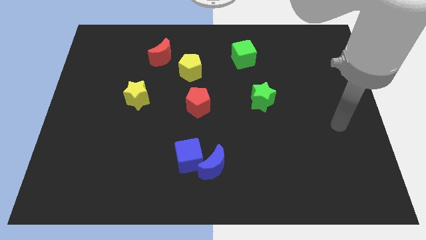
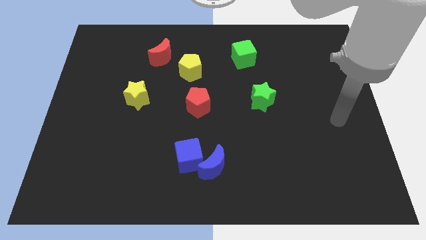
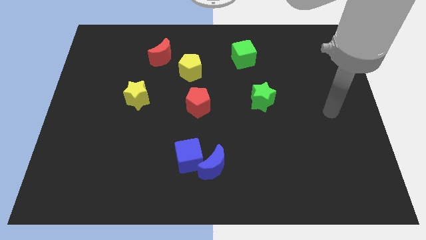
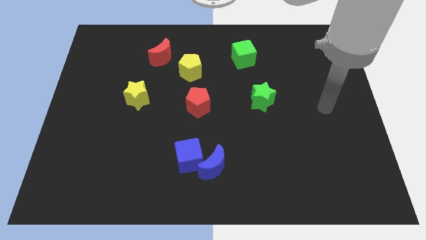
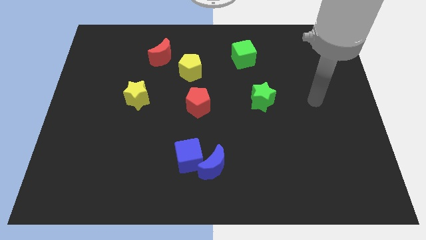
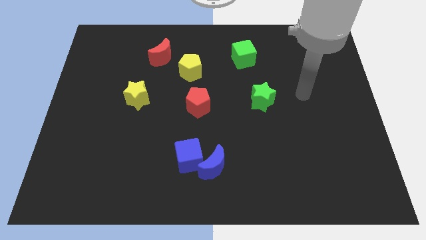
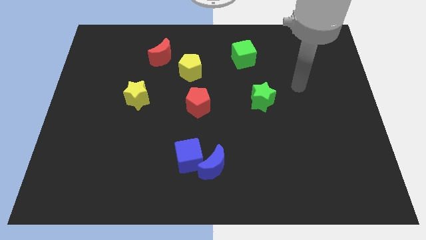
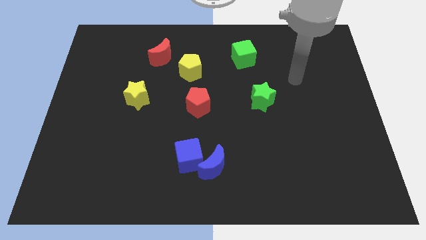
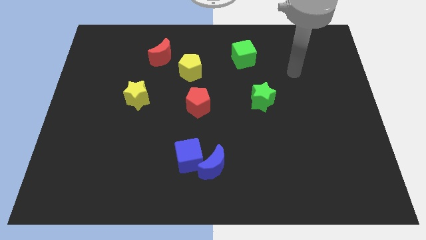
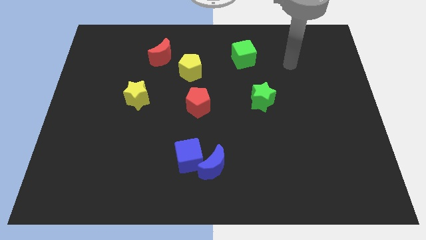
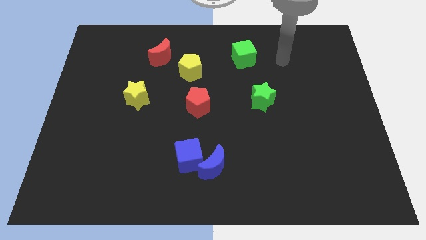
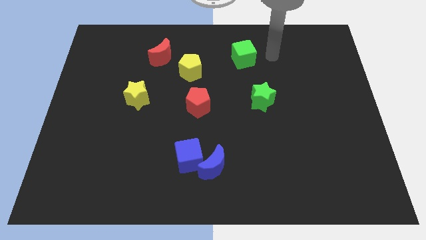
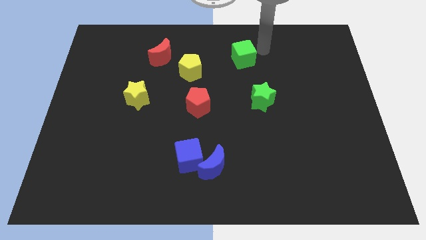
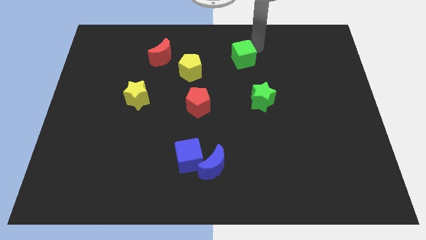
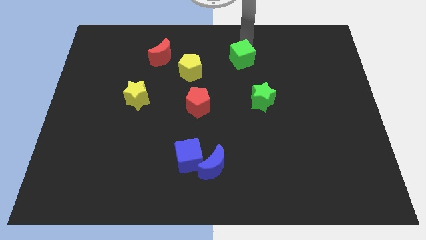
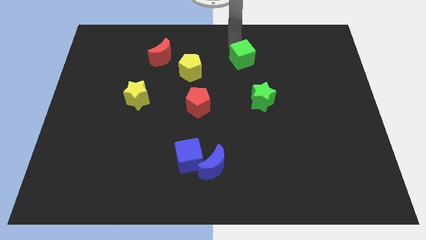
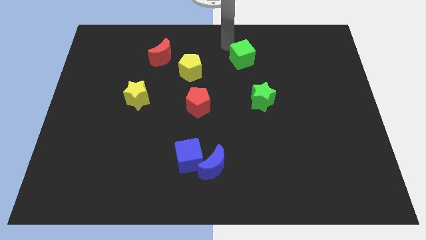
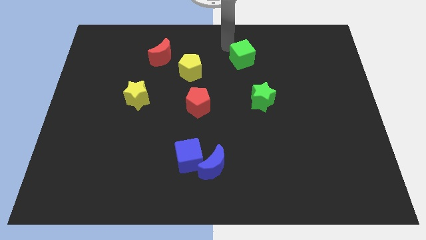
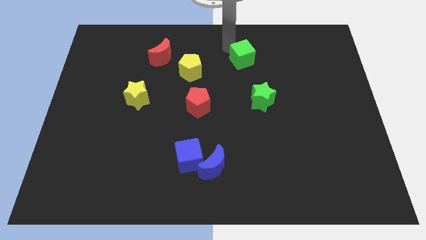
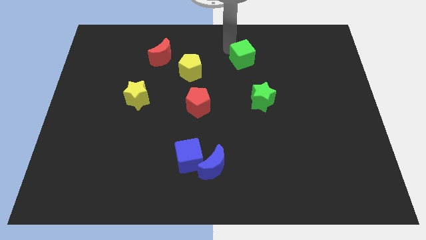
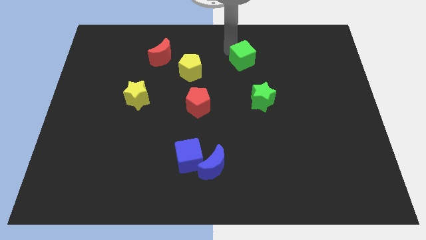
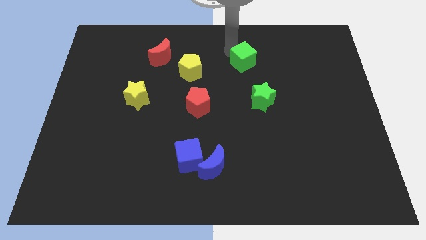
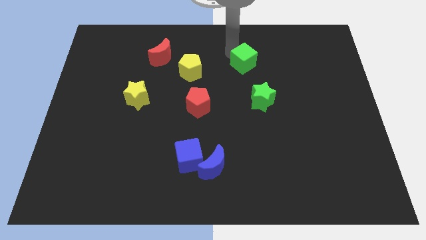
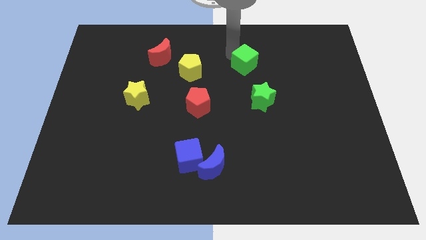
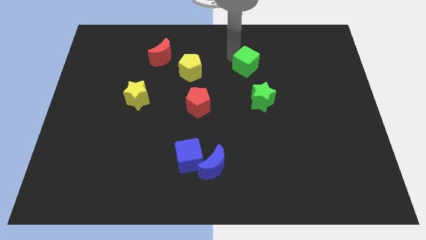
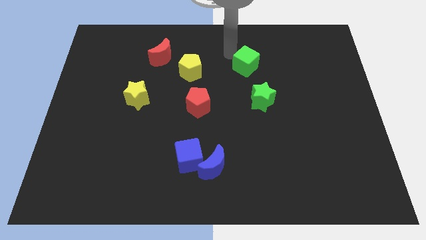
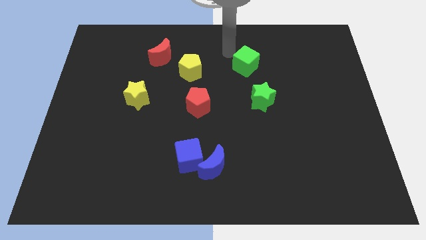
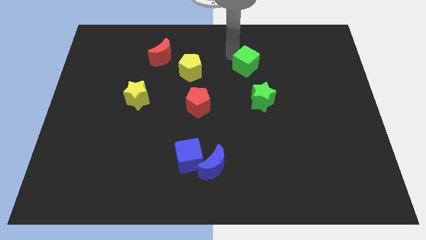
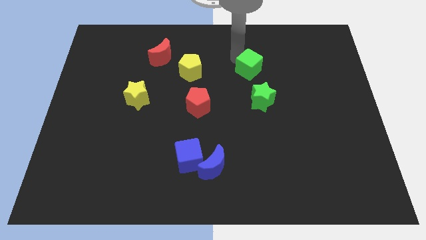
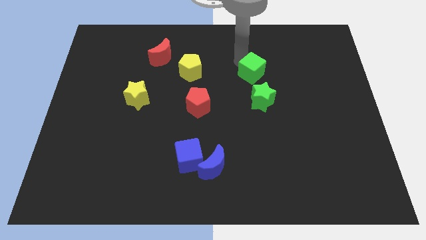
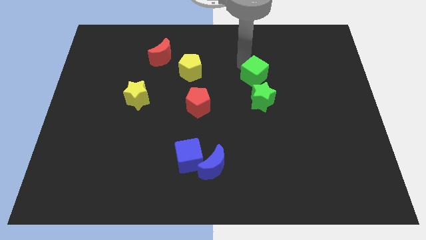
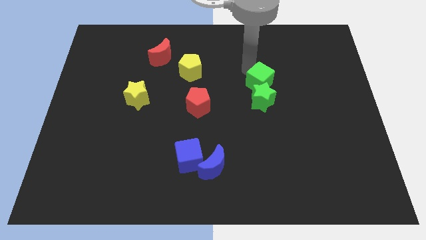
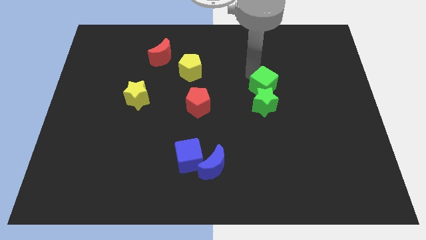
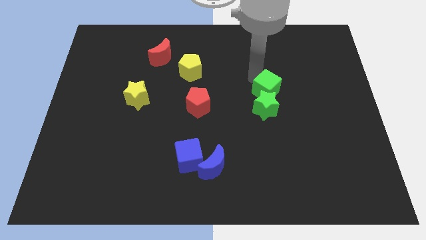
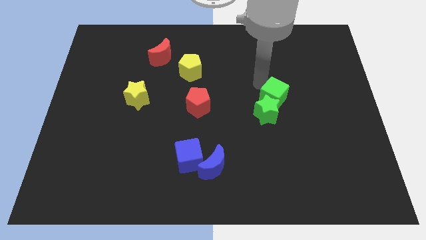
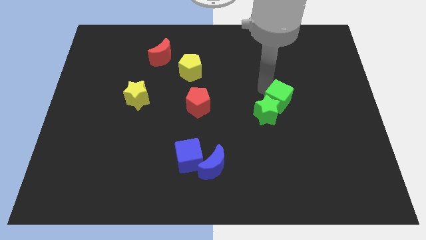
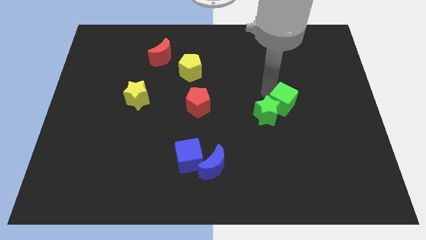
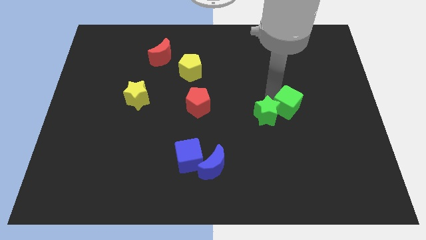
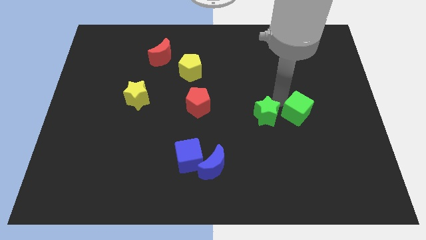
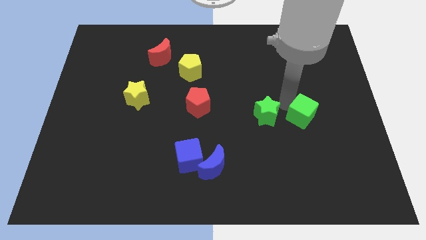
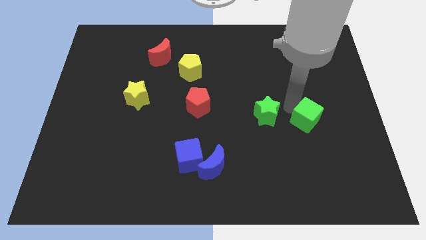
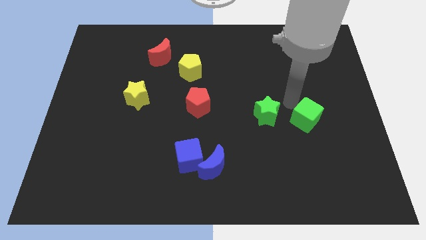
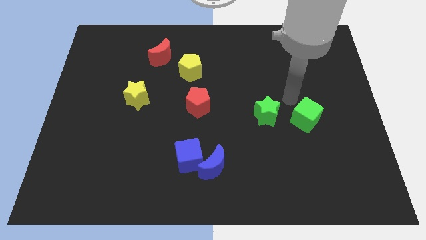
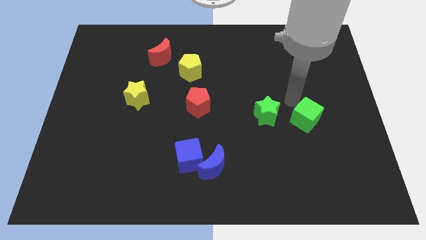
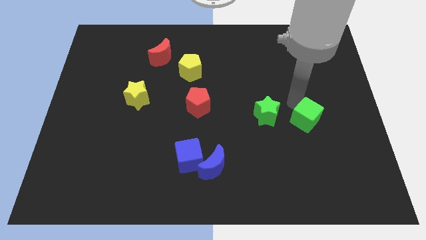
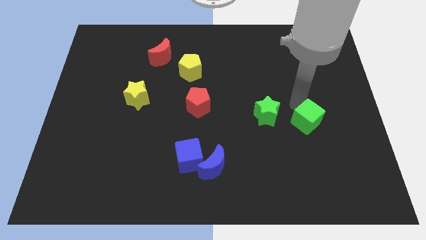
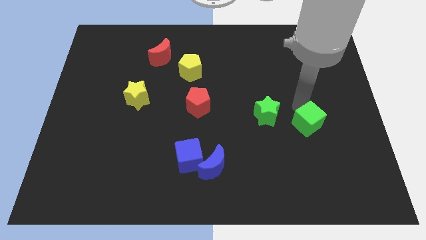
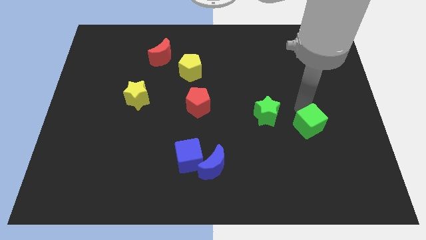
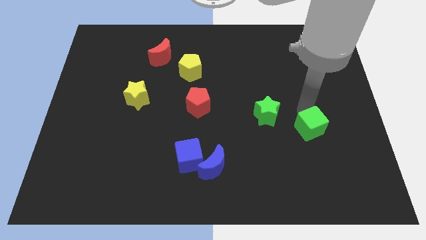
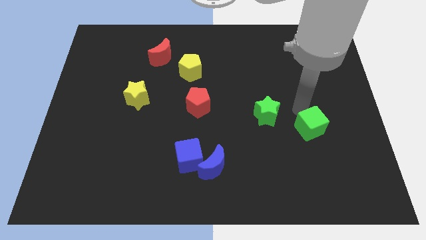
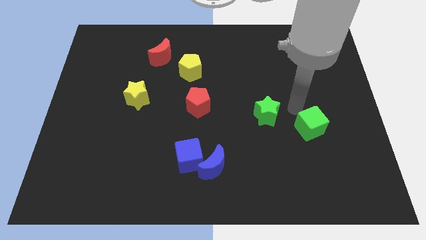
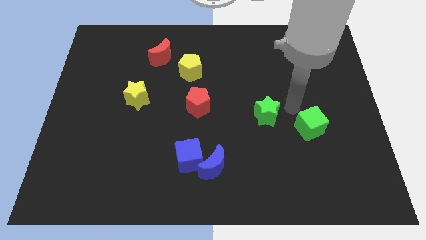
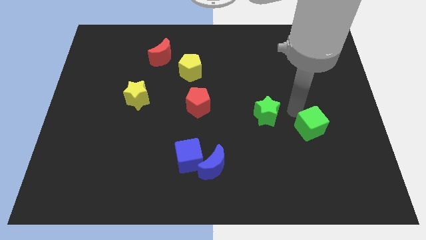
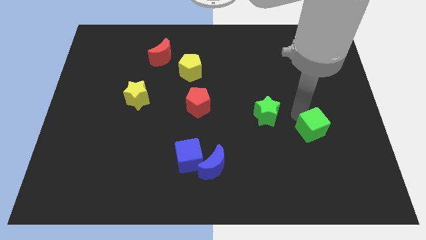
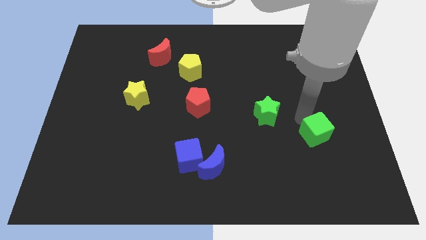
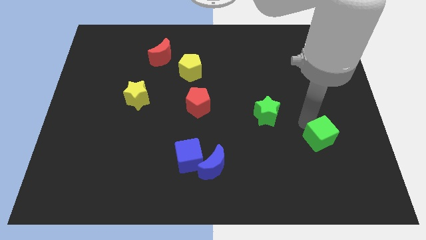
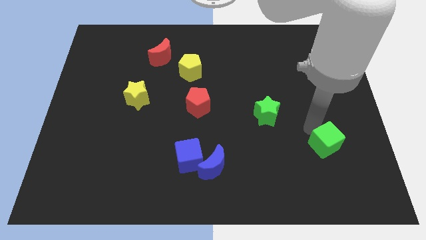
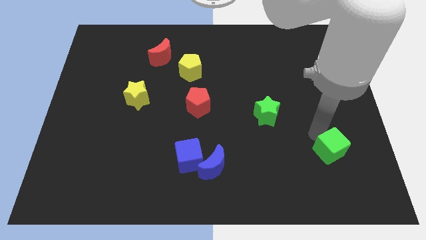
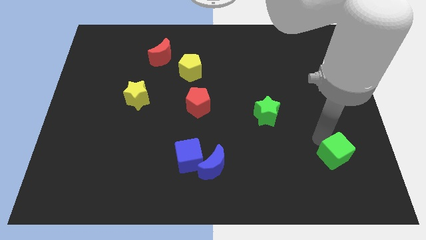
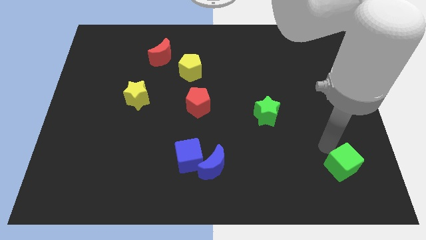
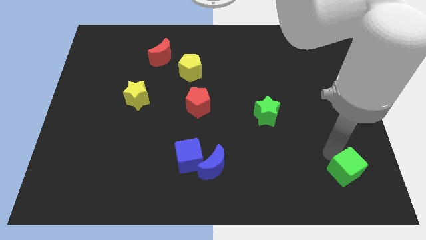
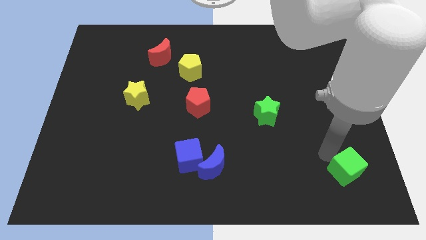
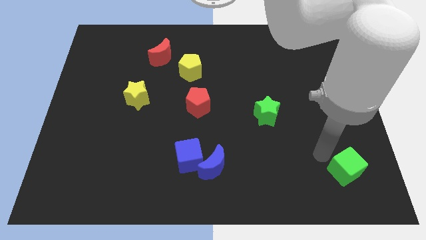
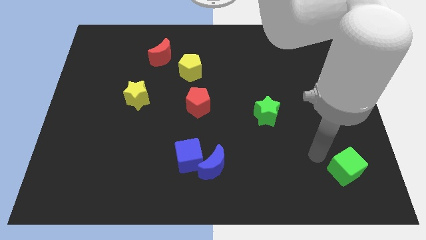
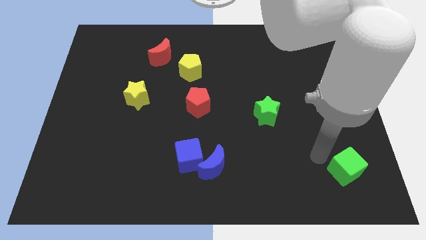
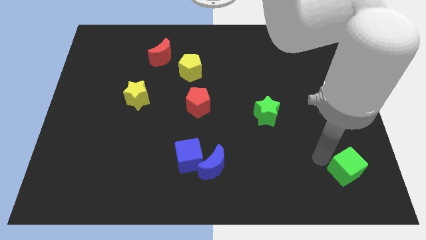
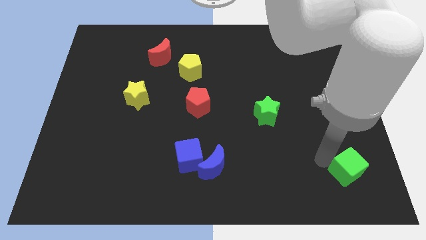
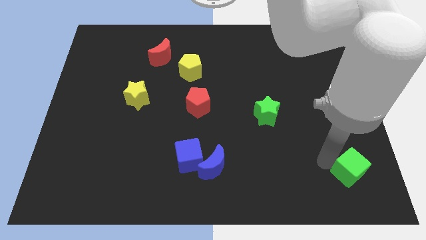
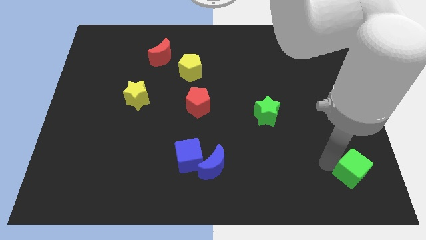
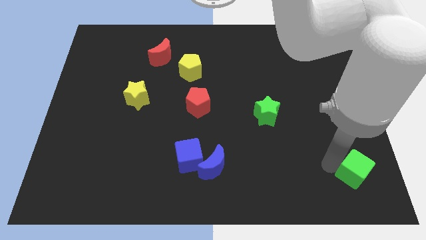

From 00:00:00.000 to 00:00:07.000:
move the green cube to the bottom right of the board

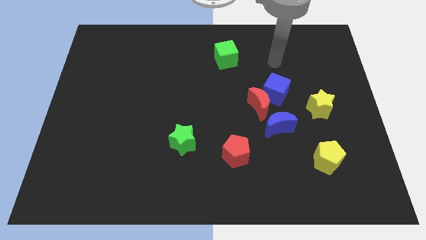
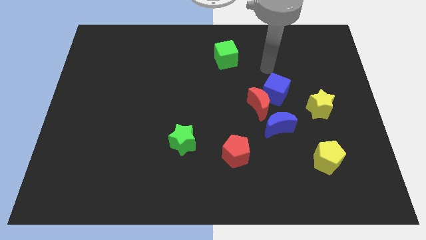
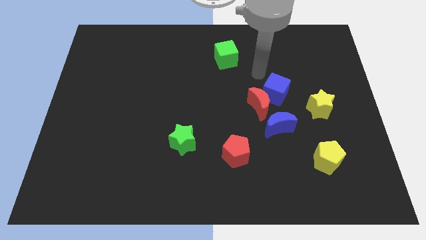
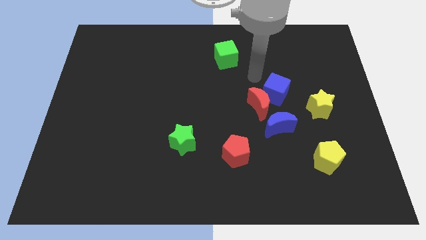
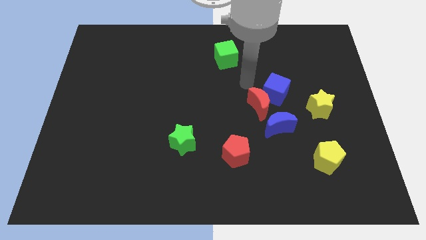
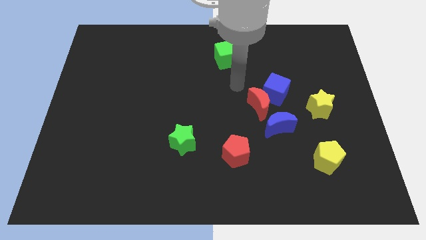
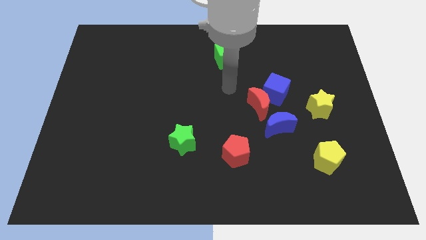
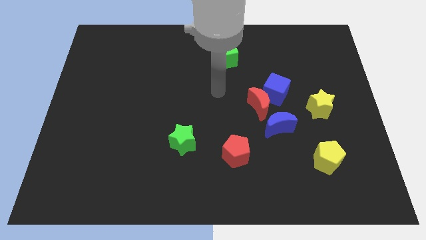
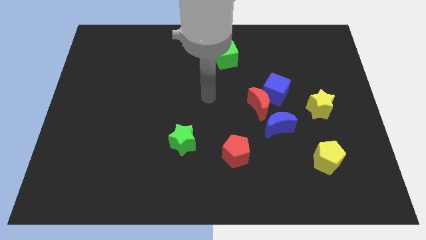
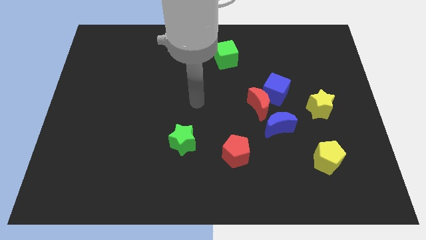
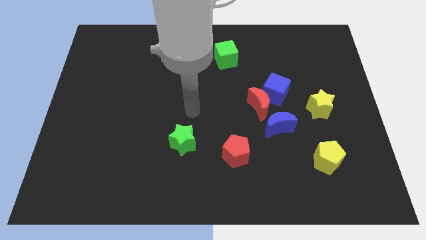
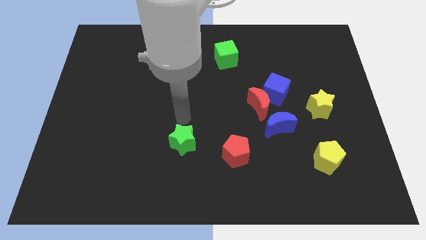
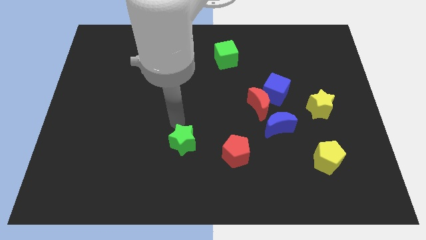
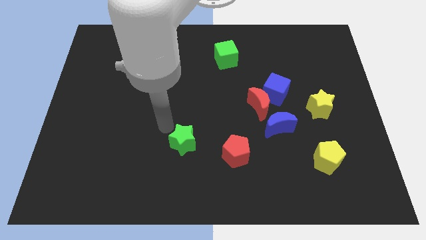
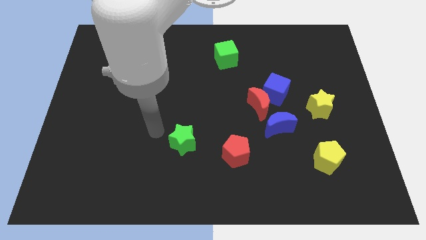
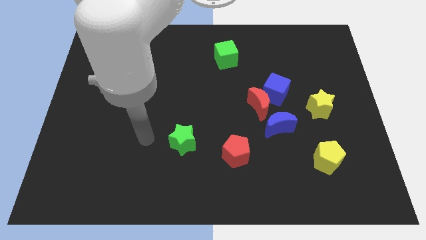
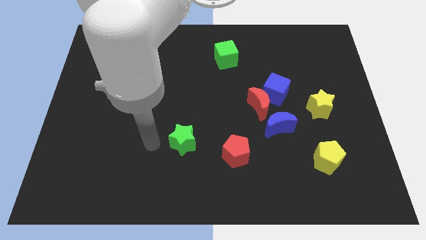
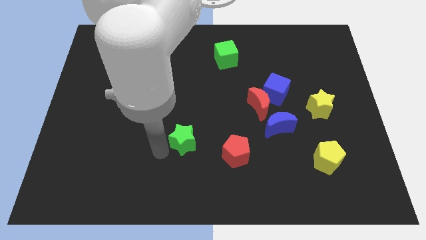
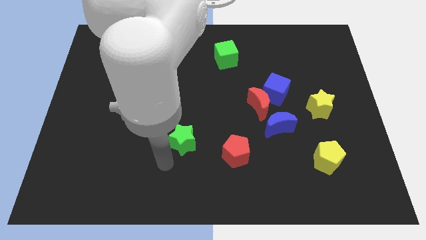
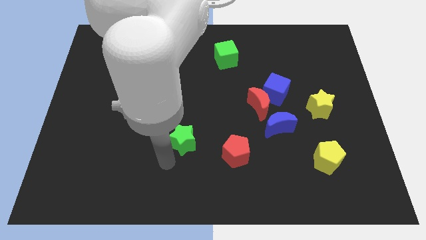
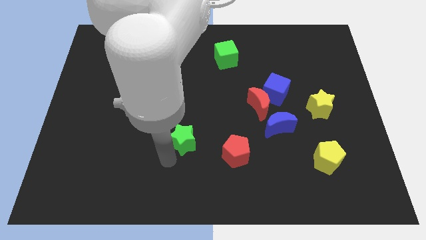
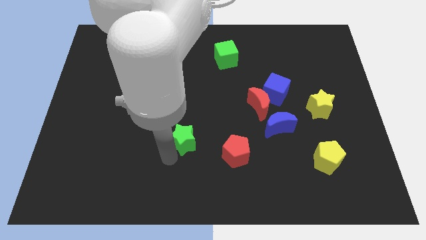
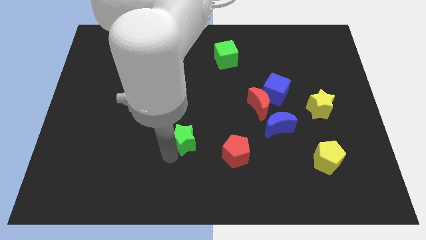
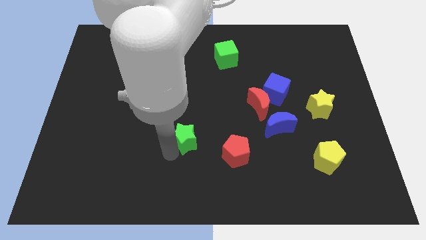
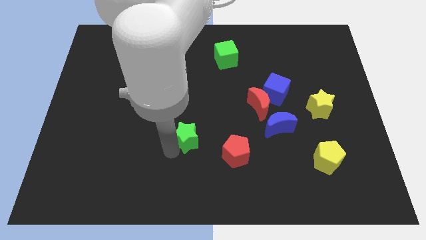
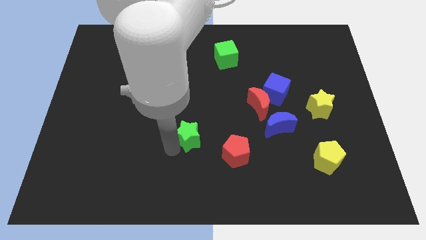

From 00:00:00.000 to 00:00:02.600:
put the green star to the center of the board
